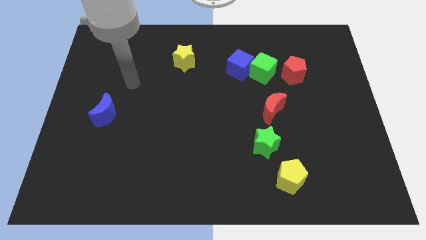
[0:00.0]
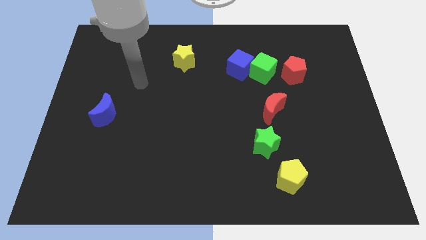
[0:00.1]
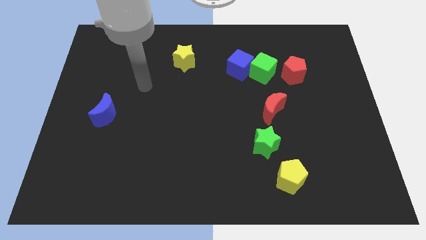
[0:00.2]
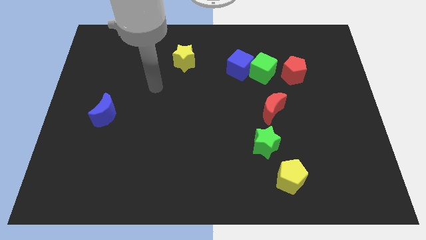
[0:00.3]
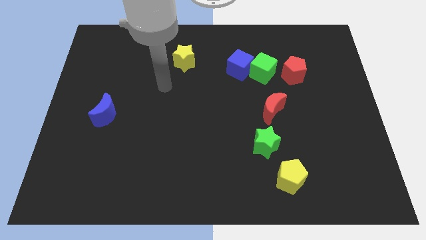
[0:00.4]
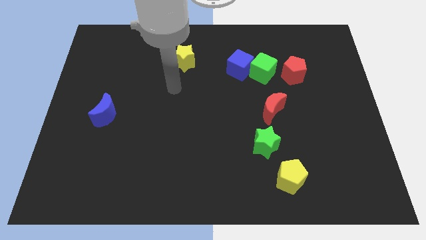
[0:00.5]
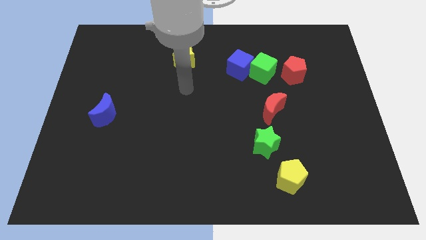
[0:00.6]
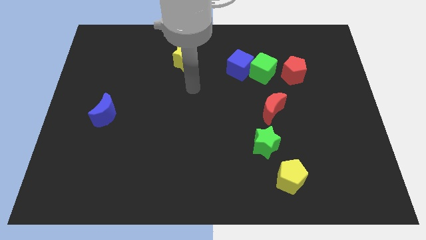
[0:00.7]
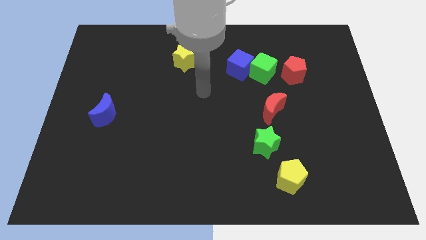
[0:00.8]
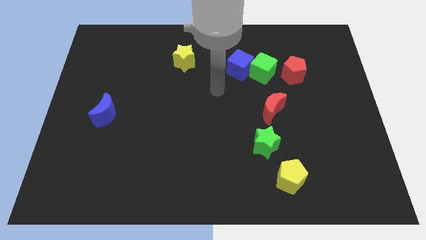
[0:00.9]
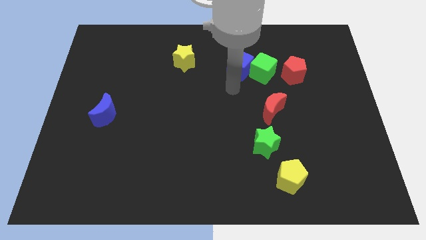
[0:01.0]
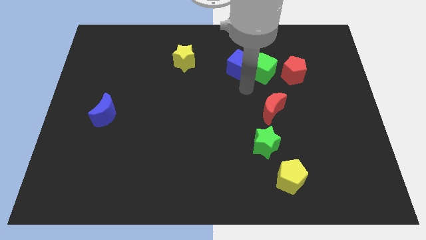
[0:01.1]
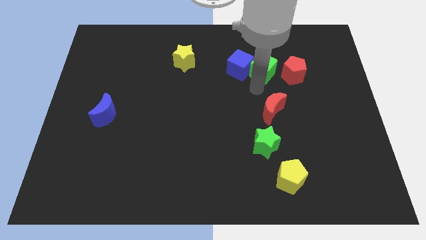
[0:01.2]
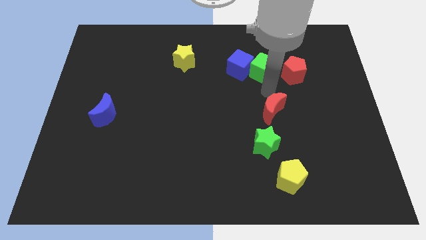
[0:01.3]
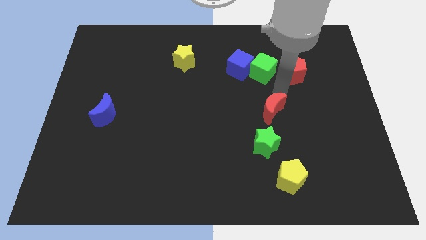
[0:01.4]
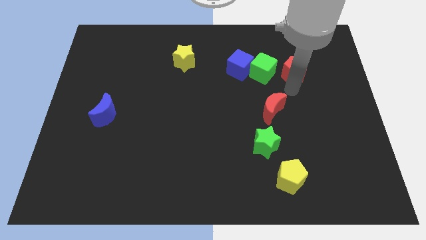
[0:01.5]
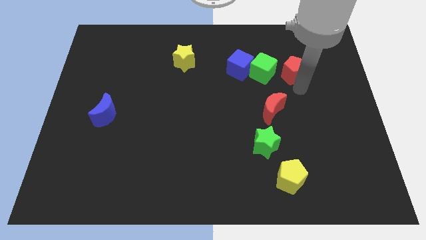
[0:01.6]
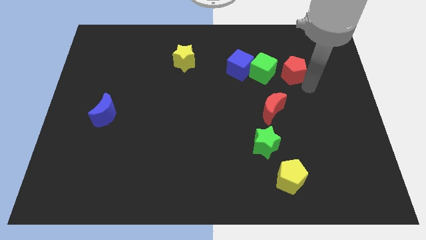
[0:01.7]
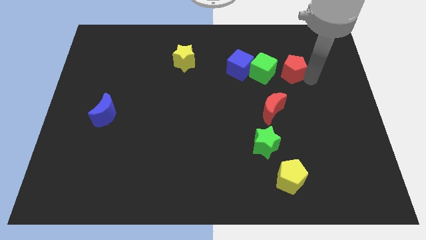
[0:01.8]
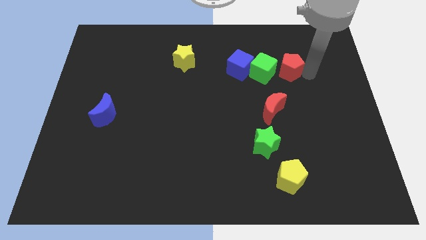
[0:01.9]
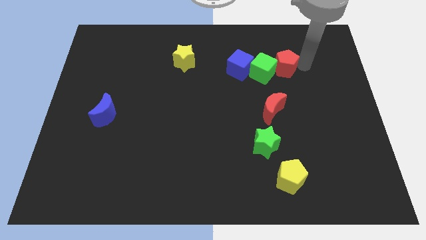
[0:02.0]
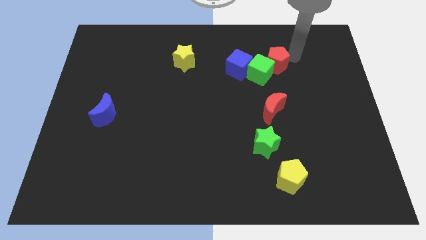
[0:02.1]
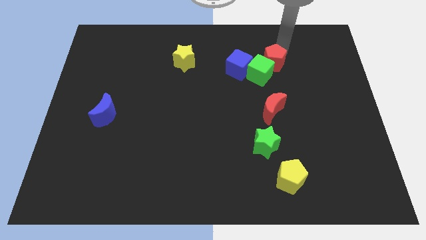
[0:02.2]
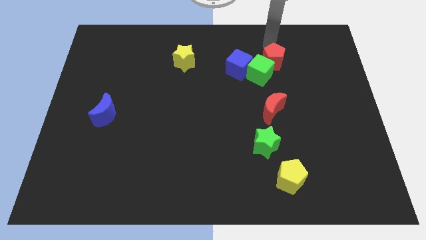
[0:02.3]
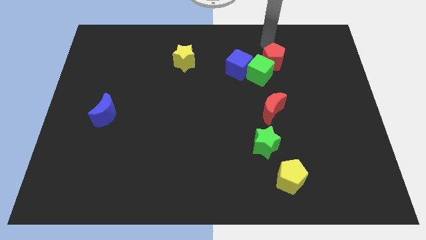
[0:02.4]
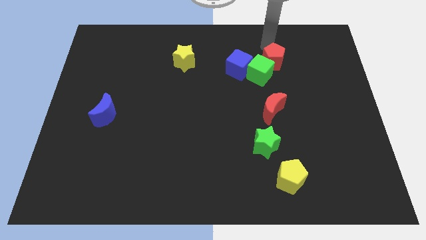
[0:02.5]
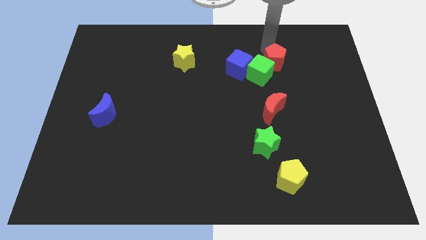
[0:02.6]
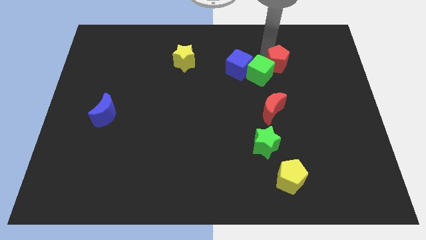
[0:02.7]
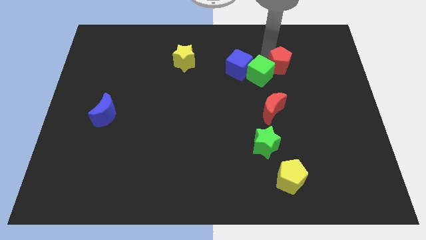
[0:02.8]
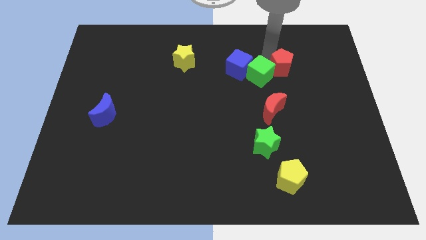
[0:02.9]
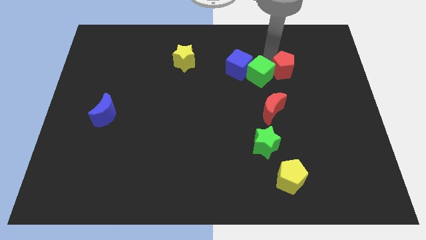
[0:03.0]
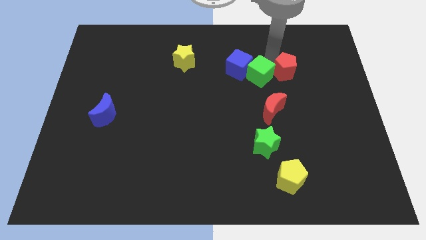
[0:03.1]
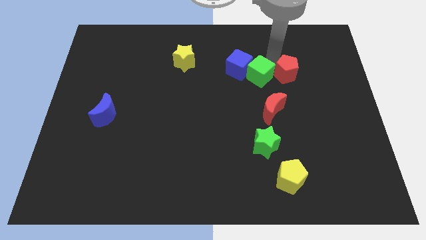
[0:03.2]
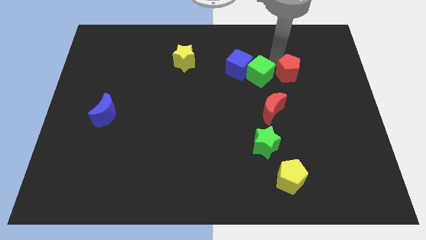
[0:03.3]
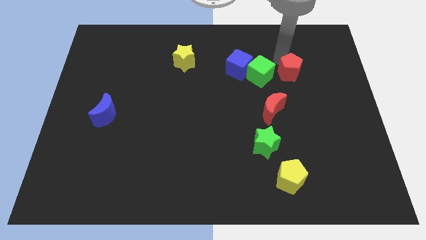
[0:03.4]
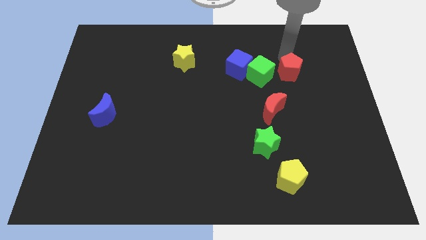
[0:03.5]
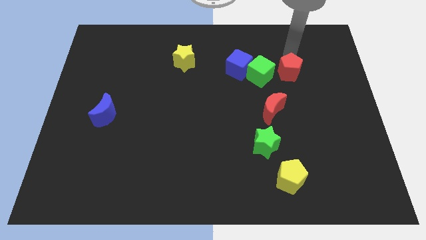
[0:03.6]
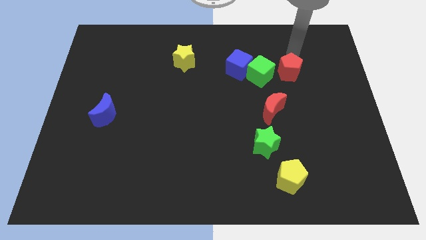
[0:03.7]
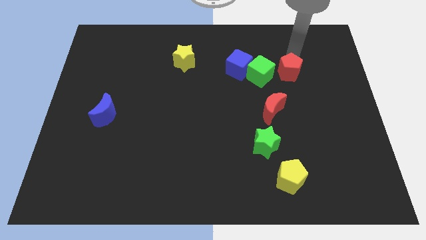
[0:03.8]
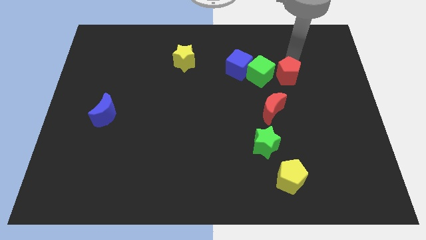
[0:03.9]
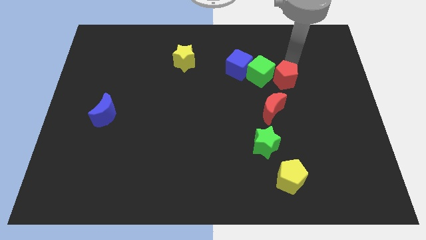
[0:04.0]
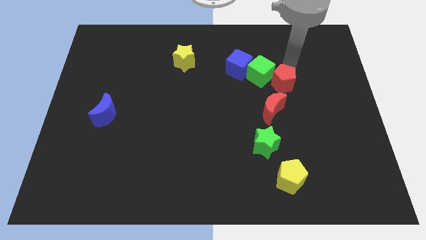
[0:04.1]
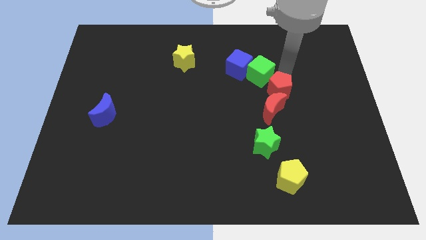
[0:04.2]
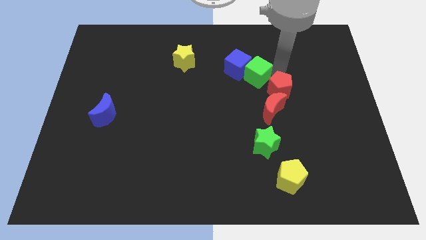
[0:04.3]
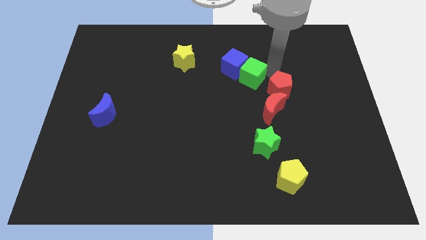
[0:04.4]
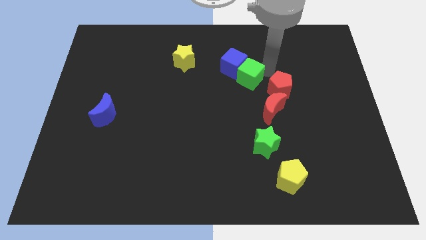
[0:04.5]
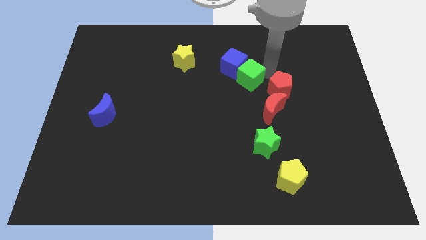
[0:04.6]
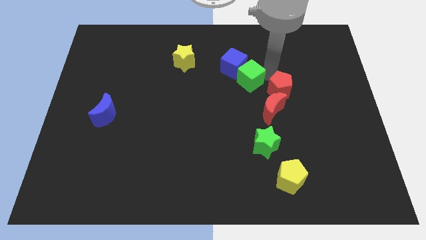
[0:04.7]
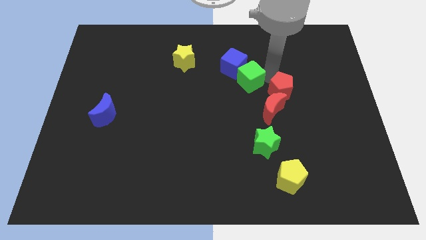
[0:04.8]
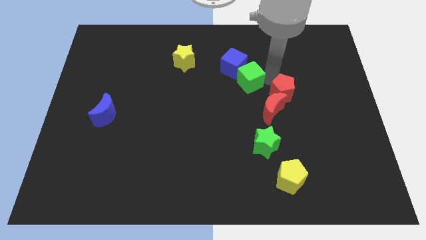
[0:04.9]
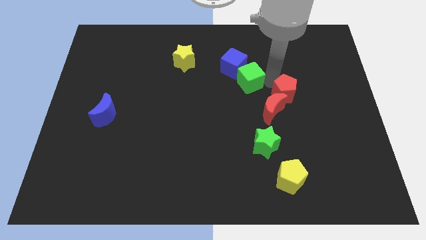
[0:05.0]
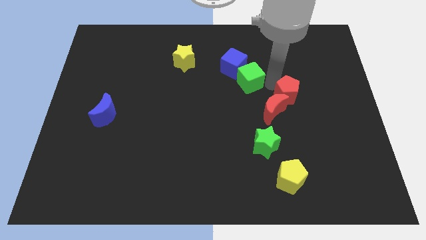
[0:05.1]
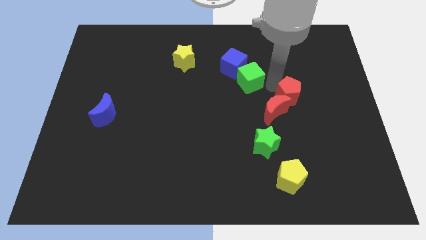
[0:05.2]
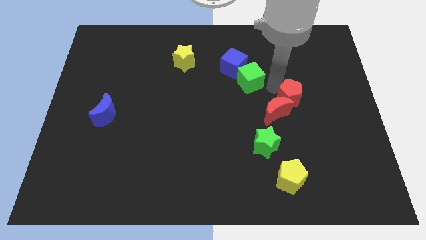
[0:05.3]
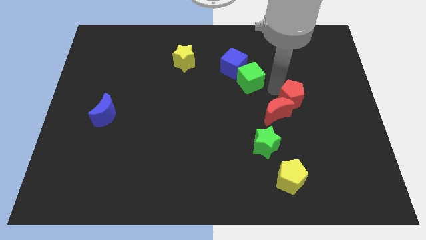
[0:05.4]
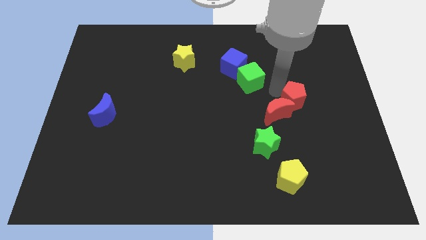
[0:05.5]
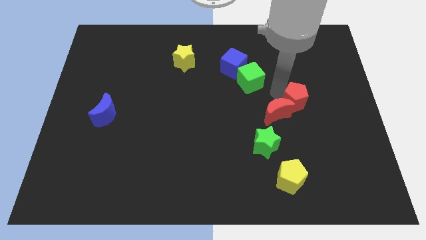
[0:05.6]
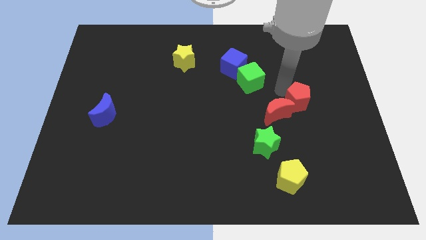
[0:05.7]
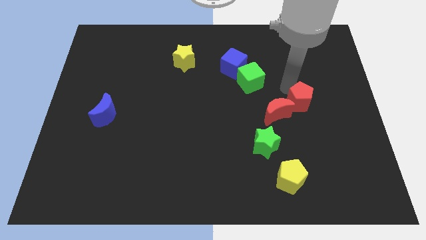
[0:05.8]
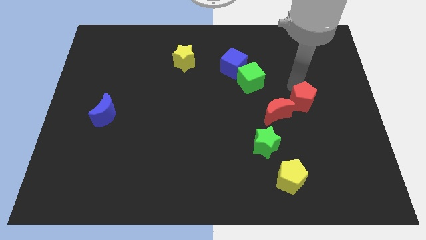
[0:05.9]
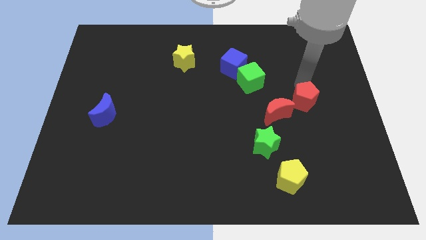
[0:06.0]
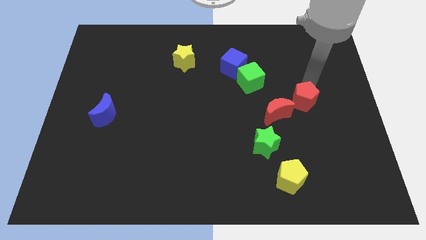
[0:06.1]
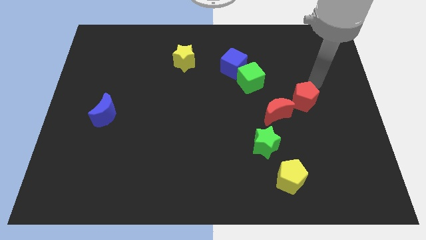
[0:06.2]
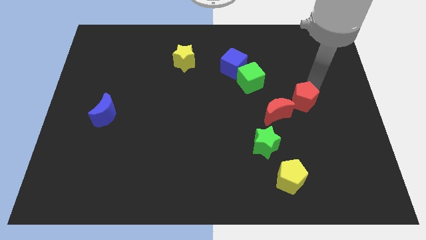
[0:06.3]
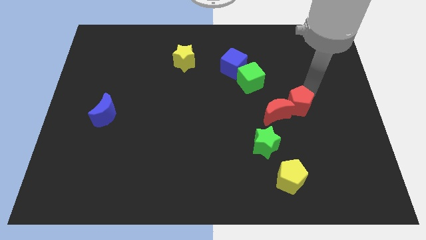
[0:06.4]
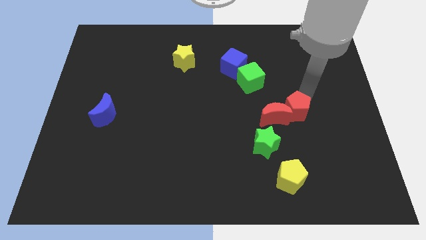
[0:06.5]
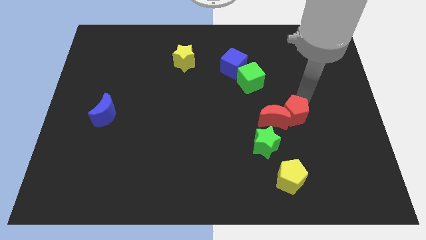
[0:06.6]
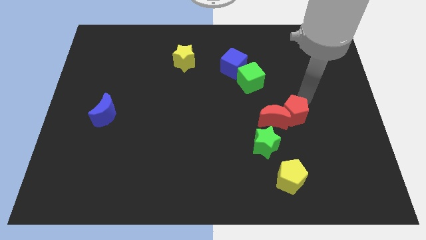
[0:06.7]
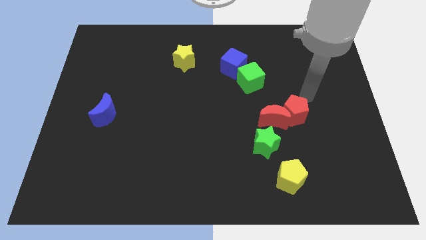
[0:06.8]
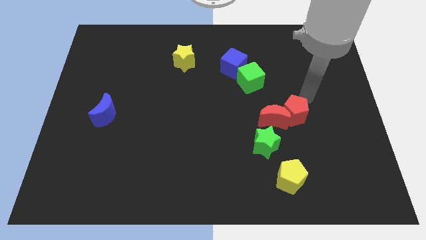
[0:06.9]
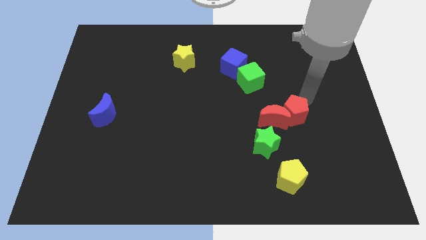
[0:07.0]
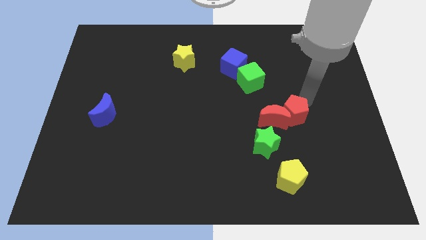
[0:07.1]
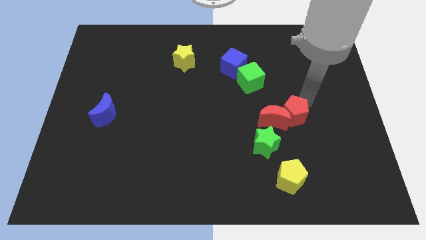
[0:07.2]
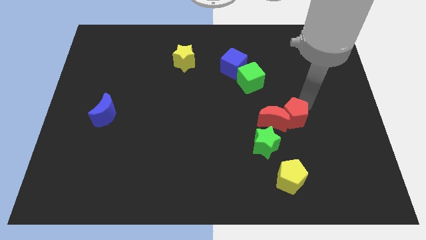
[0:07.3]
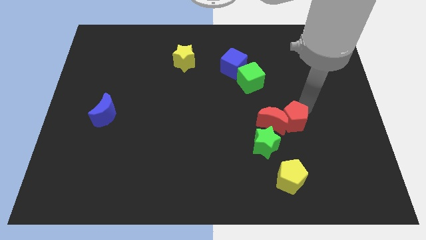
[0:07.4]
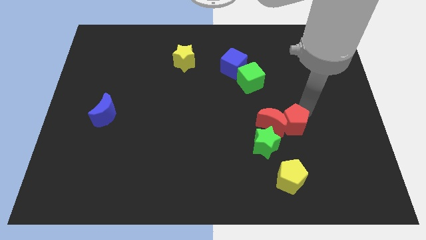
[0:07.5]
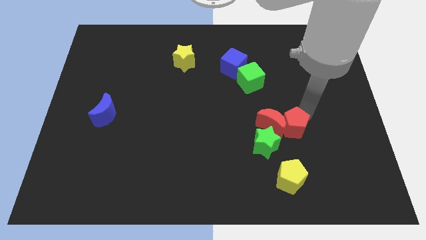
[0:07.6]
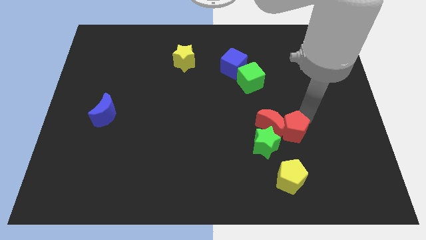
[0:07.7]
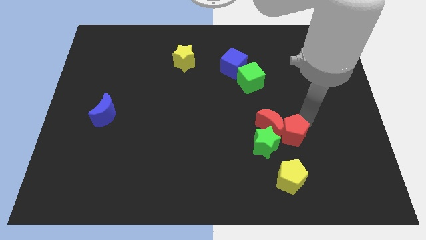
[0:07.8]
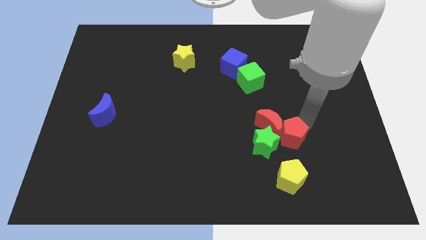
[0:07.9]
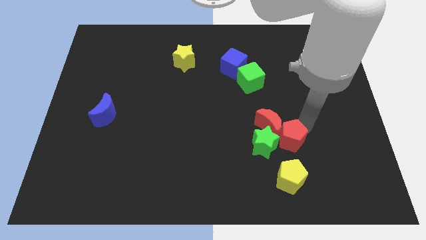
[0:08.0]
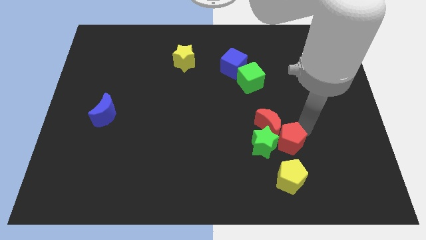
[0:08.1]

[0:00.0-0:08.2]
push the red pentagon to the green star
